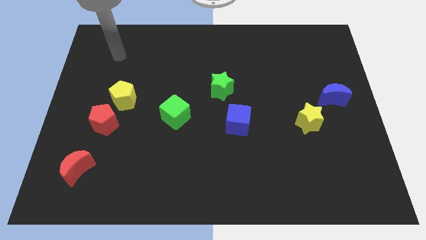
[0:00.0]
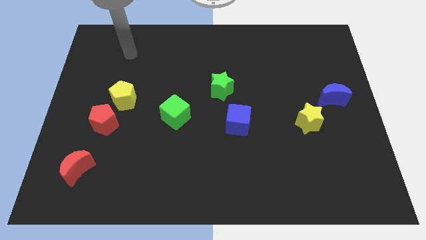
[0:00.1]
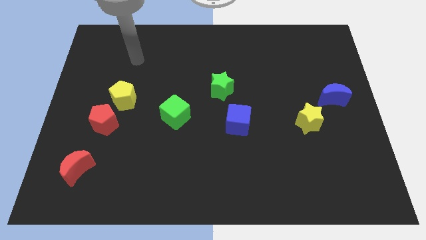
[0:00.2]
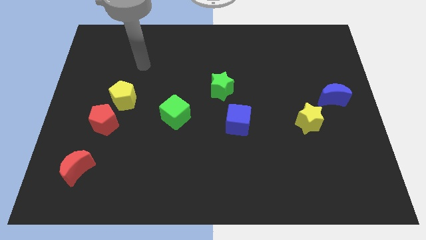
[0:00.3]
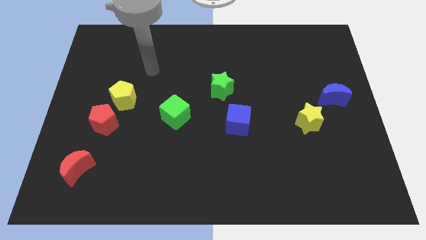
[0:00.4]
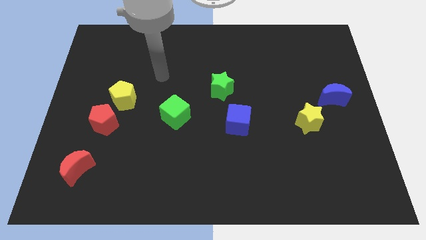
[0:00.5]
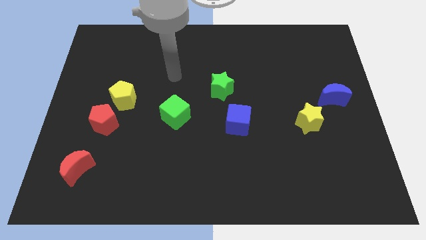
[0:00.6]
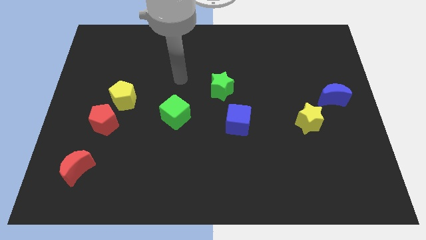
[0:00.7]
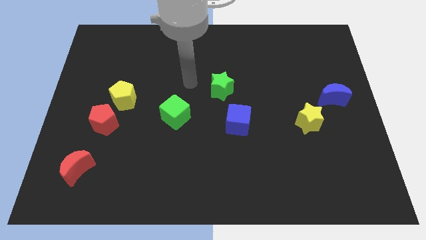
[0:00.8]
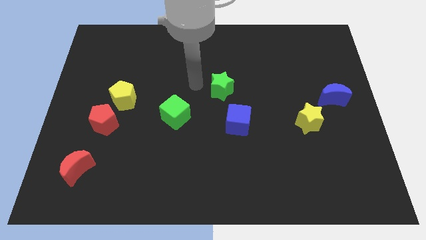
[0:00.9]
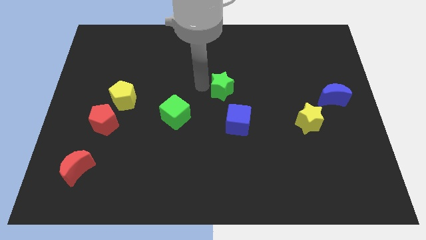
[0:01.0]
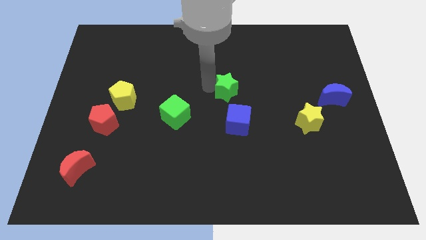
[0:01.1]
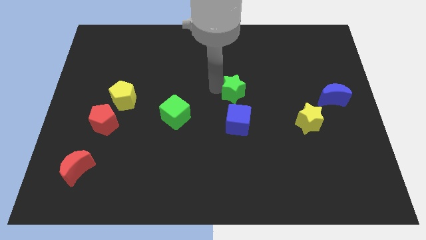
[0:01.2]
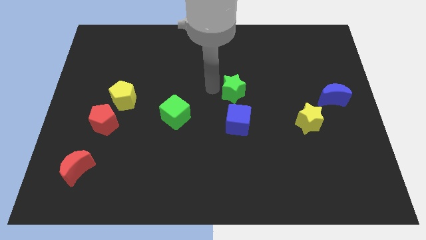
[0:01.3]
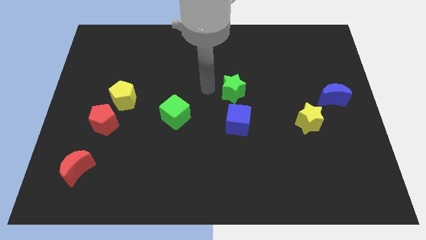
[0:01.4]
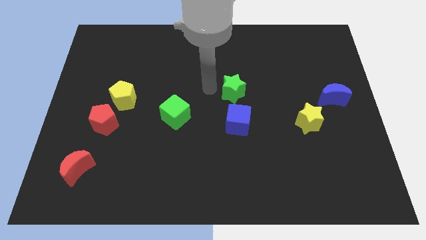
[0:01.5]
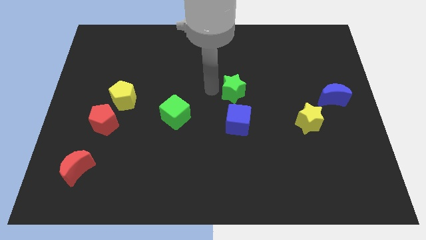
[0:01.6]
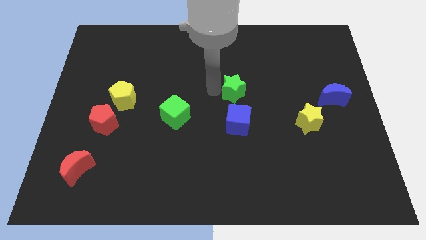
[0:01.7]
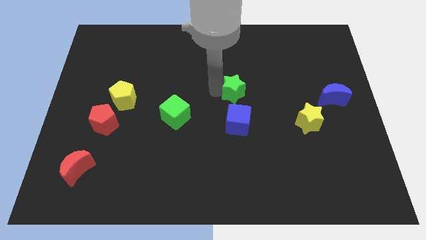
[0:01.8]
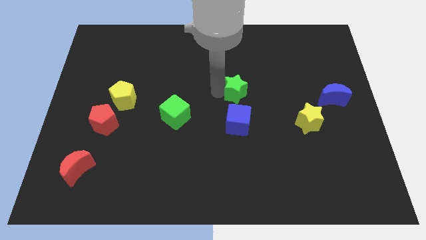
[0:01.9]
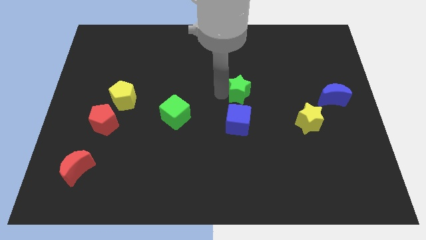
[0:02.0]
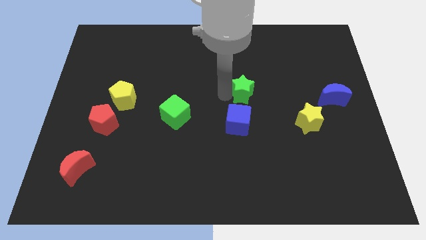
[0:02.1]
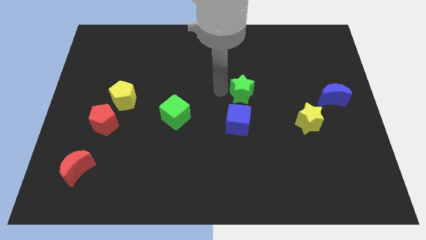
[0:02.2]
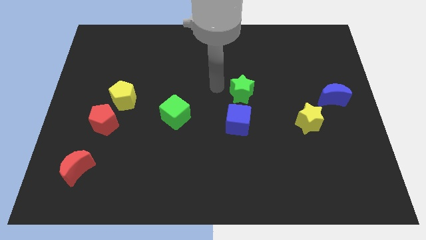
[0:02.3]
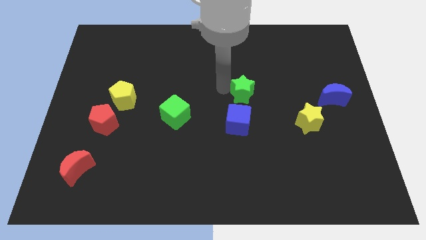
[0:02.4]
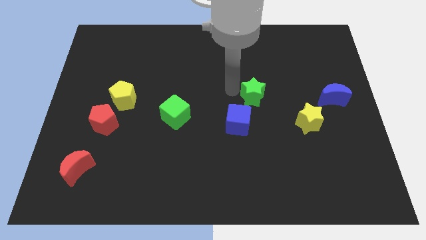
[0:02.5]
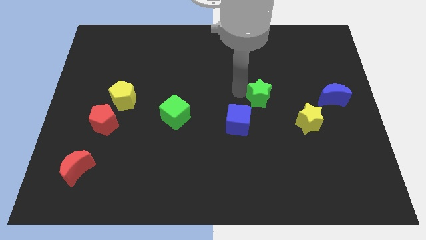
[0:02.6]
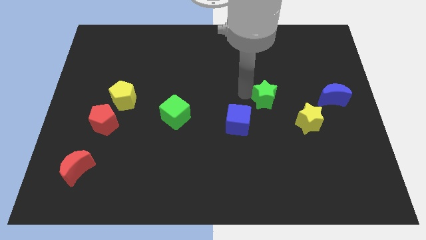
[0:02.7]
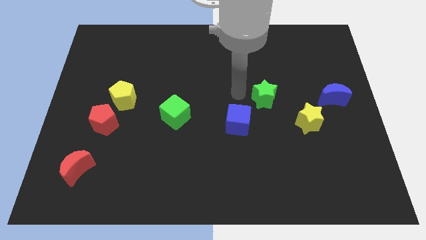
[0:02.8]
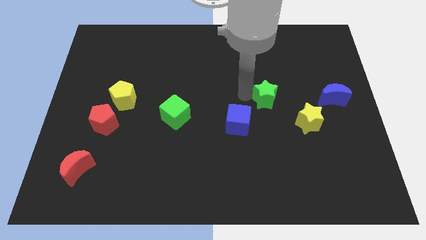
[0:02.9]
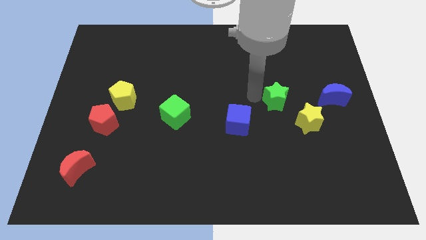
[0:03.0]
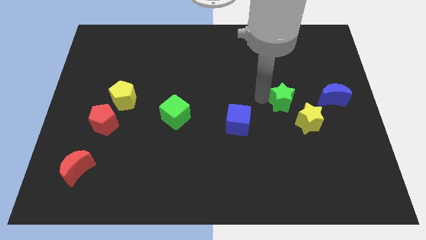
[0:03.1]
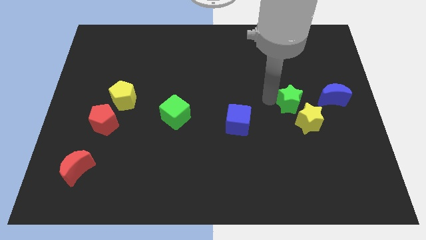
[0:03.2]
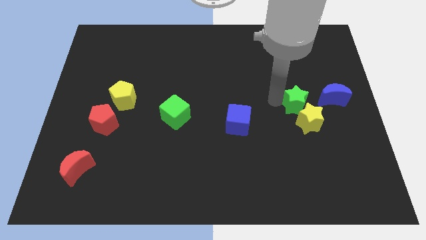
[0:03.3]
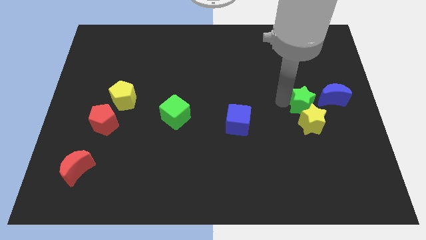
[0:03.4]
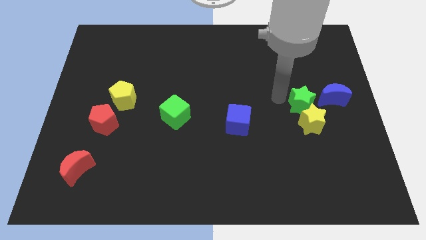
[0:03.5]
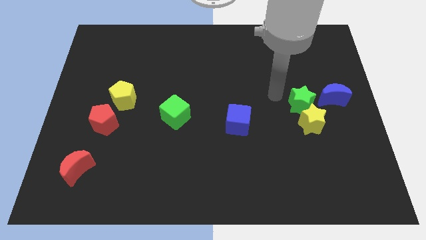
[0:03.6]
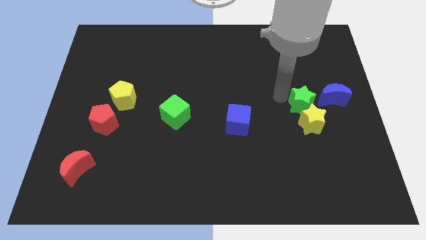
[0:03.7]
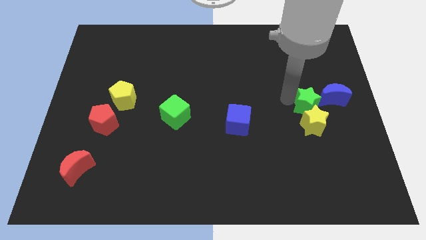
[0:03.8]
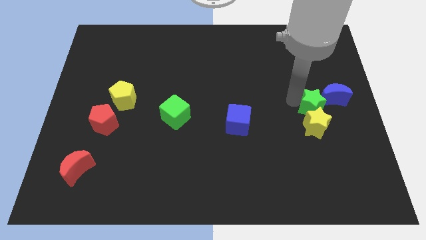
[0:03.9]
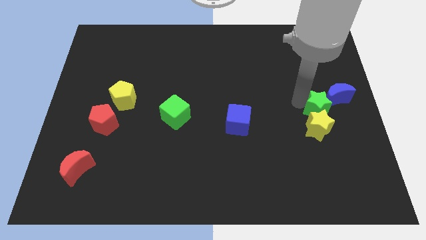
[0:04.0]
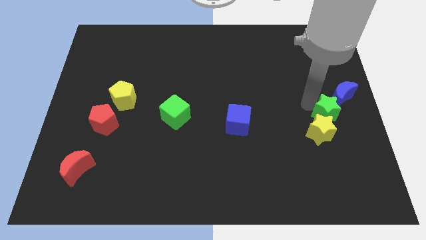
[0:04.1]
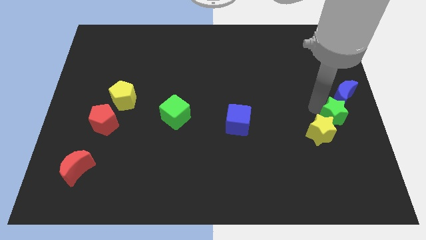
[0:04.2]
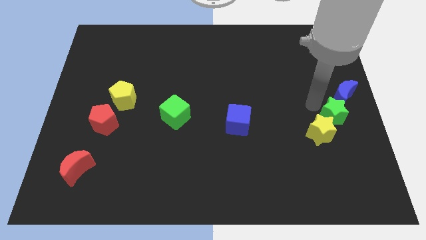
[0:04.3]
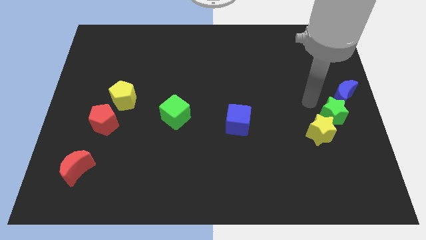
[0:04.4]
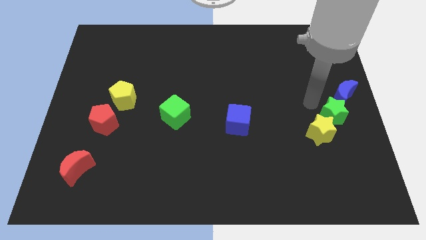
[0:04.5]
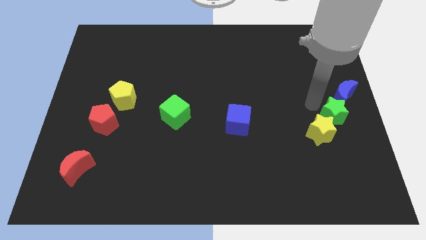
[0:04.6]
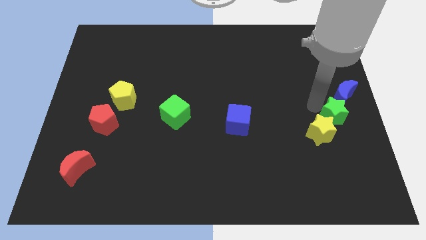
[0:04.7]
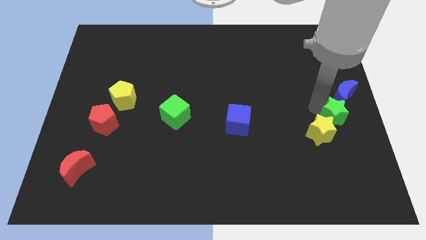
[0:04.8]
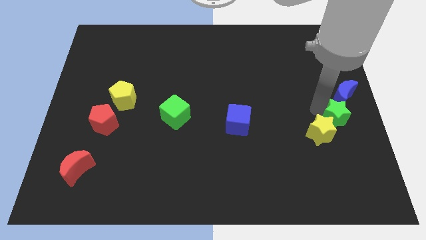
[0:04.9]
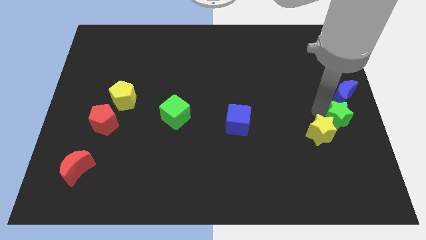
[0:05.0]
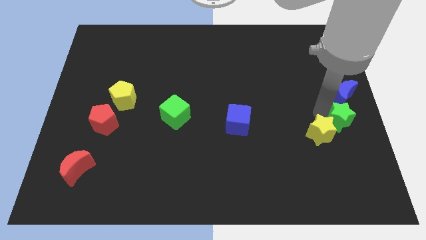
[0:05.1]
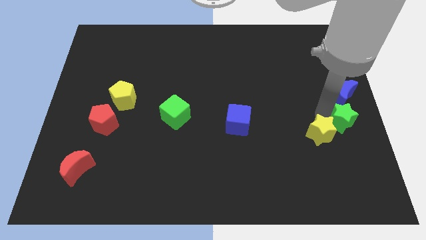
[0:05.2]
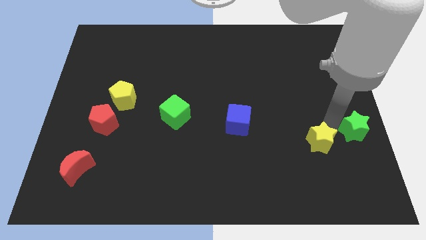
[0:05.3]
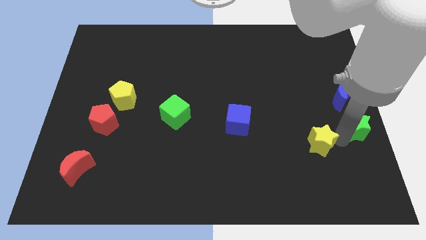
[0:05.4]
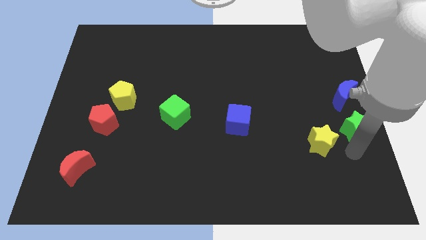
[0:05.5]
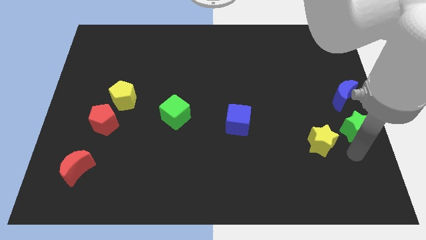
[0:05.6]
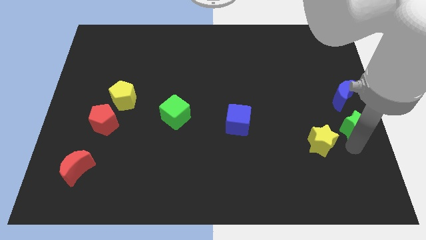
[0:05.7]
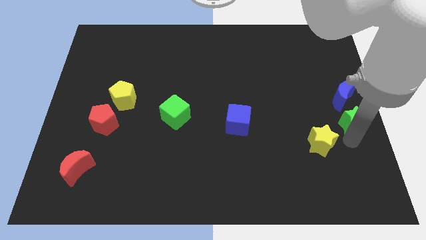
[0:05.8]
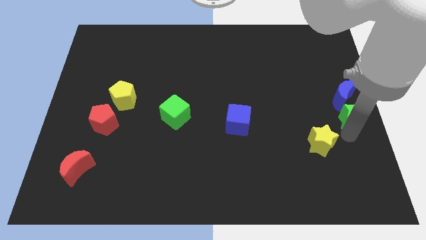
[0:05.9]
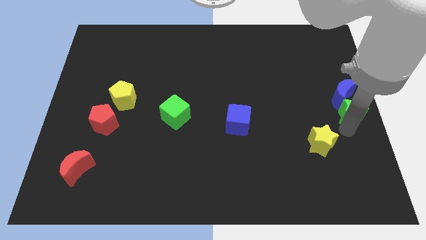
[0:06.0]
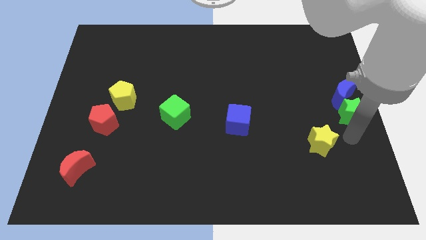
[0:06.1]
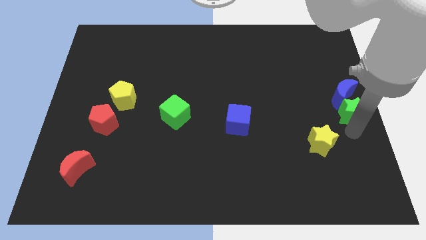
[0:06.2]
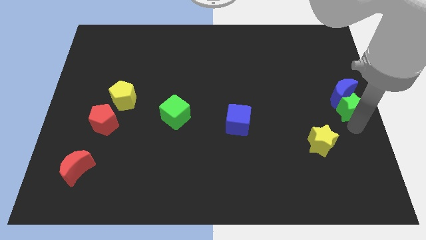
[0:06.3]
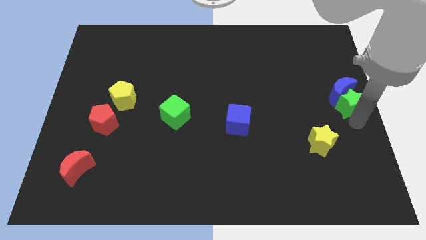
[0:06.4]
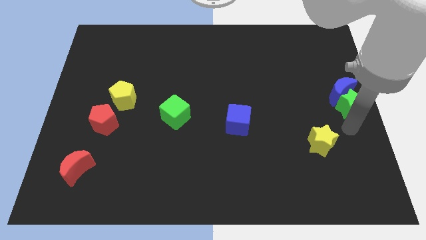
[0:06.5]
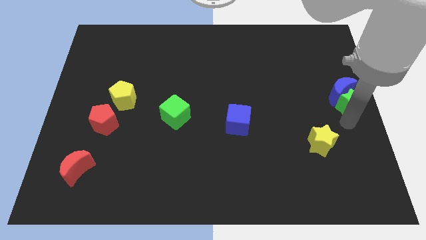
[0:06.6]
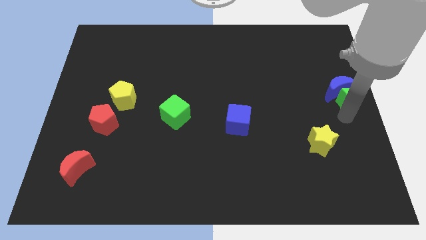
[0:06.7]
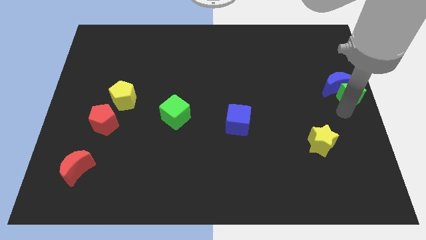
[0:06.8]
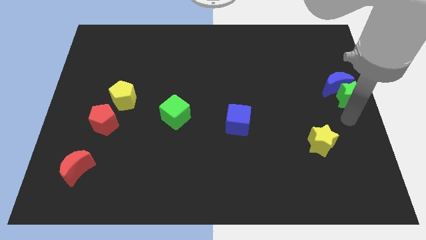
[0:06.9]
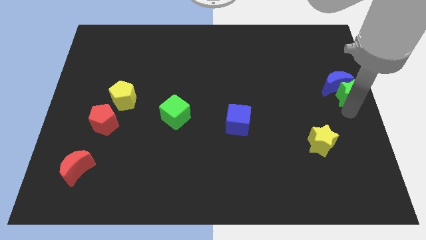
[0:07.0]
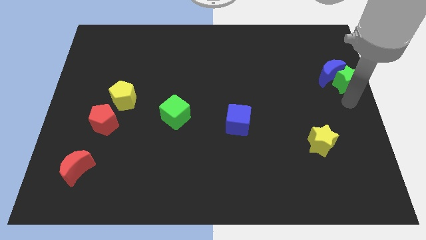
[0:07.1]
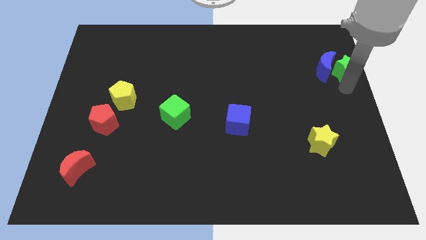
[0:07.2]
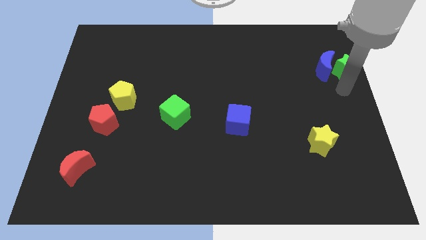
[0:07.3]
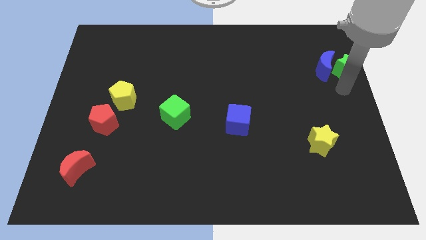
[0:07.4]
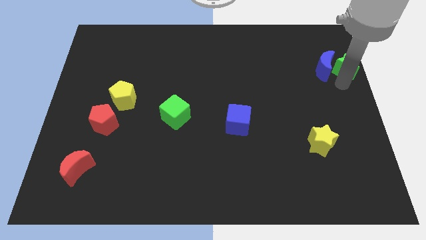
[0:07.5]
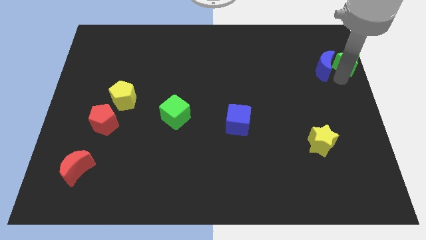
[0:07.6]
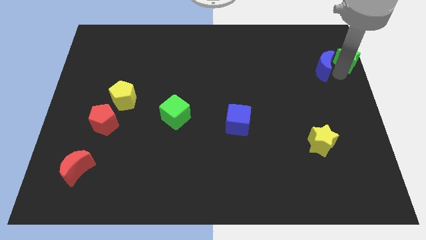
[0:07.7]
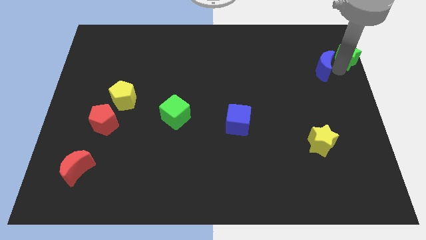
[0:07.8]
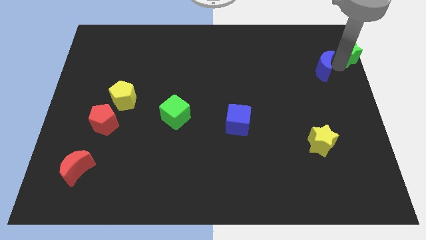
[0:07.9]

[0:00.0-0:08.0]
slide the green star to the top right
